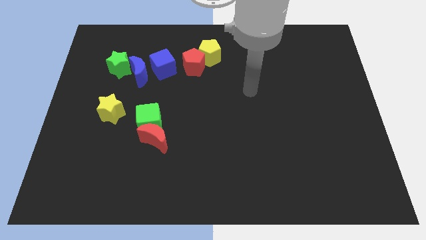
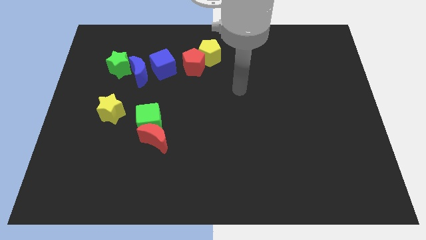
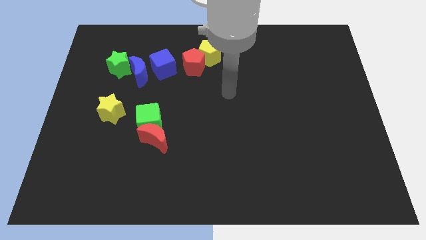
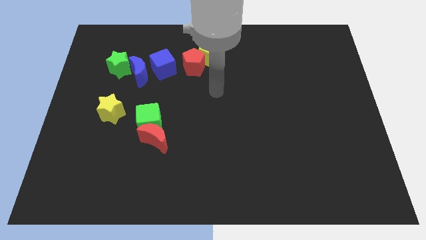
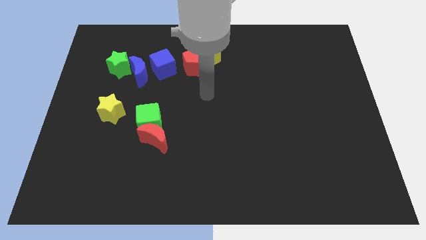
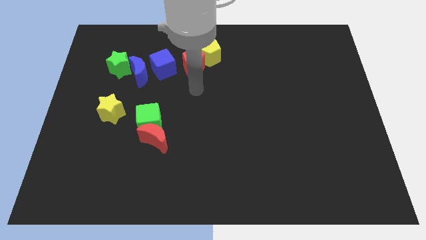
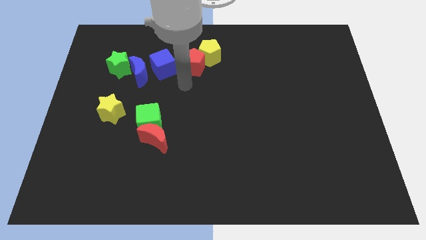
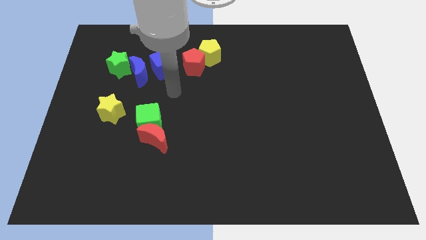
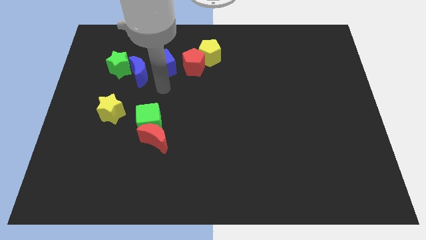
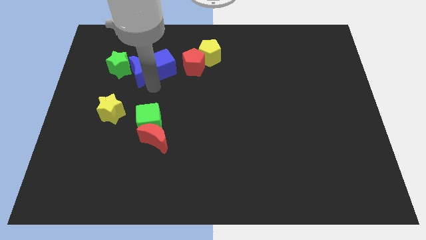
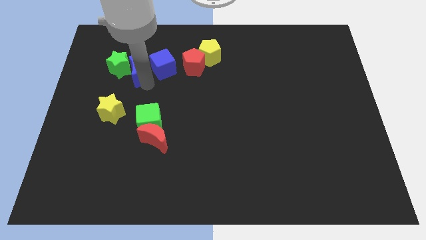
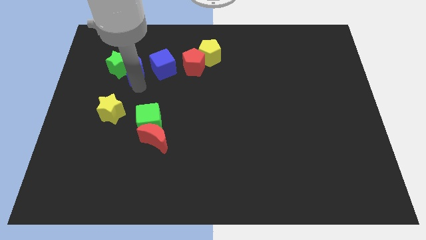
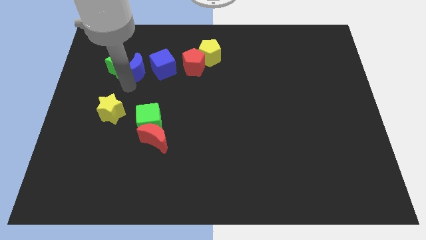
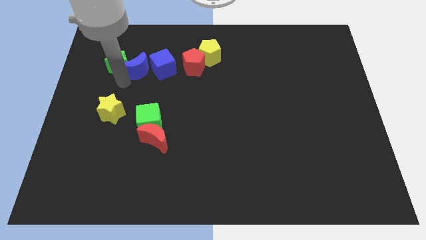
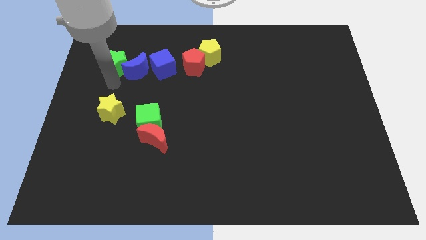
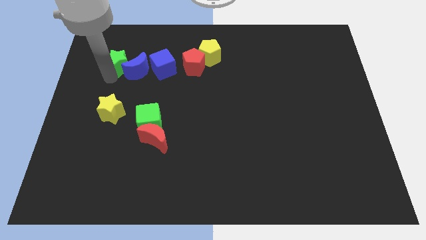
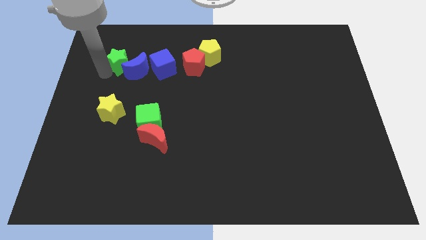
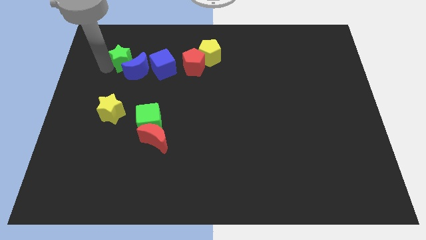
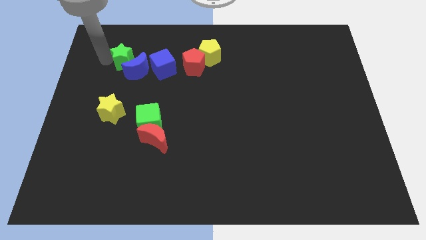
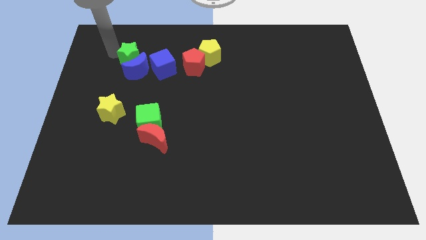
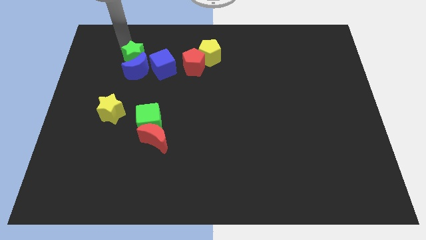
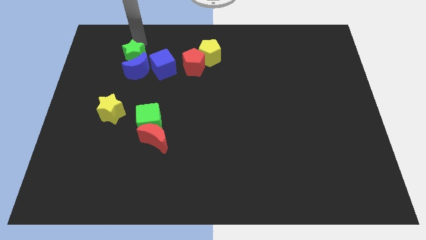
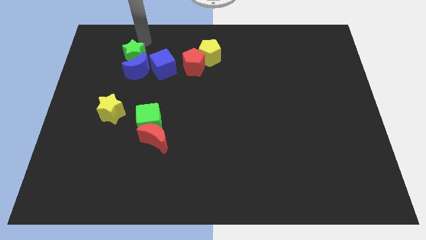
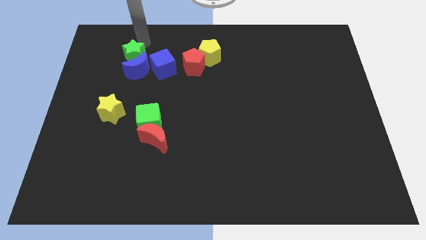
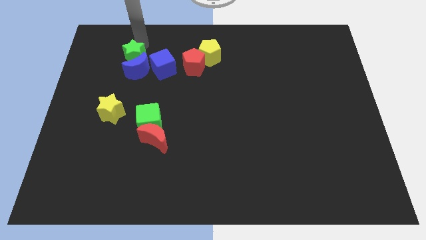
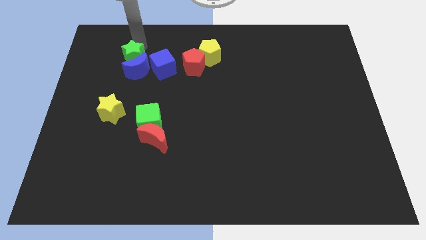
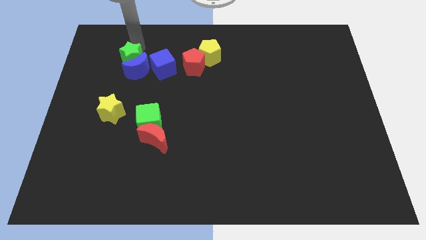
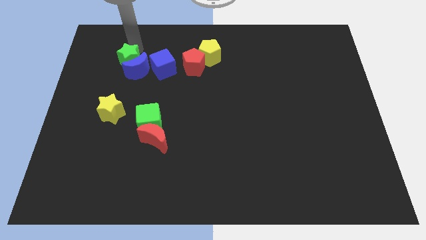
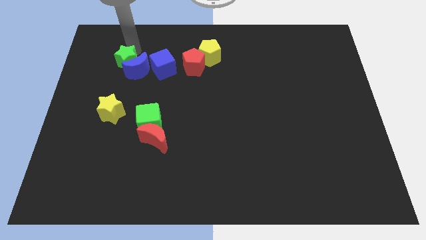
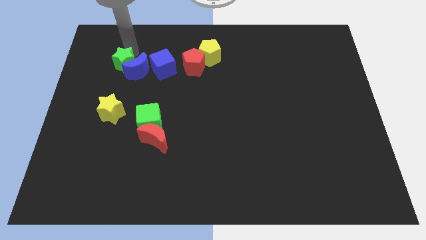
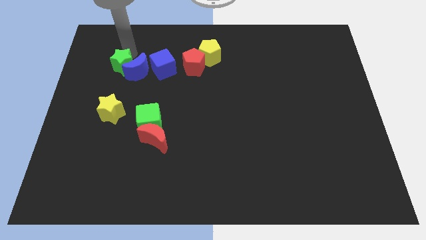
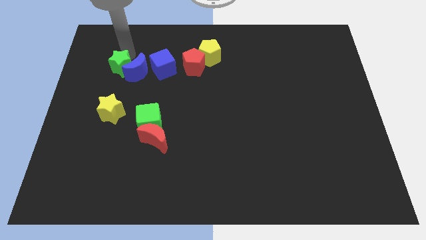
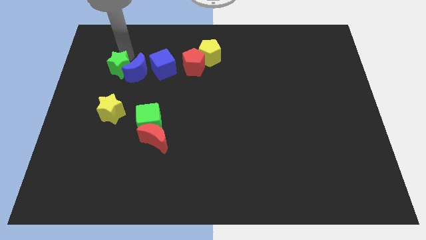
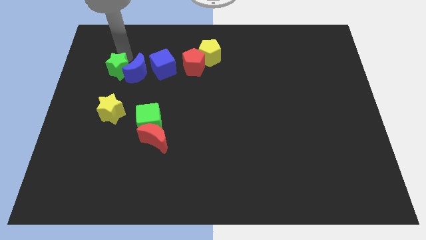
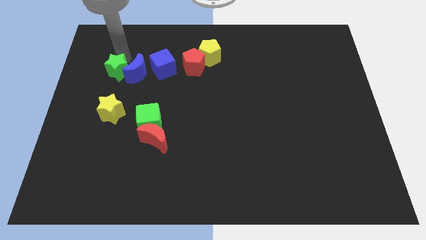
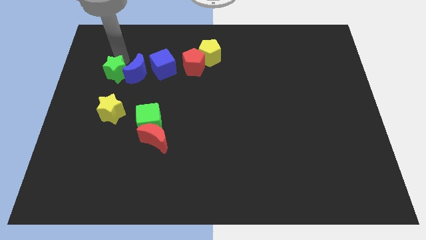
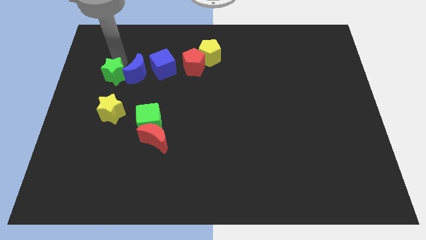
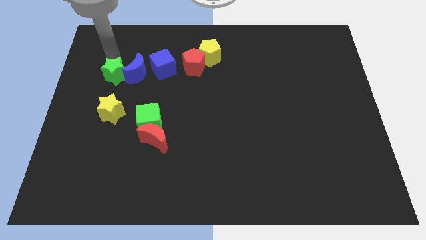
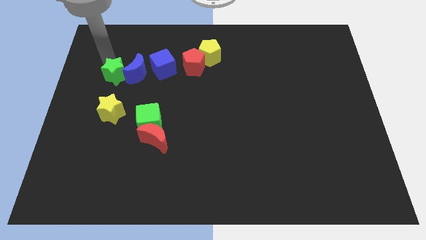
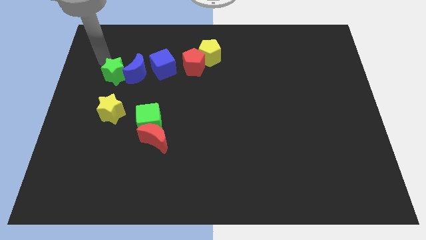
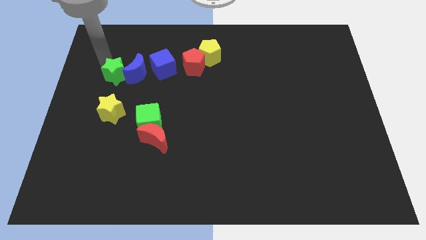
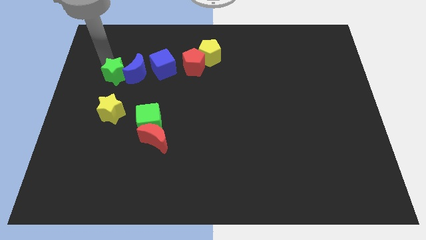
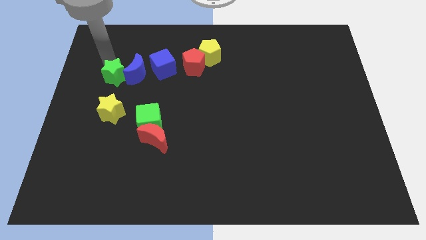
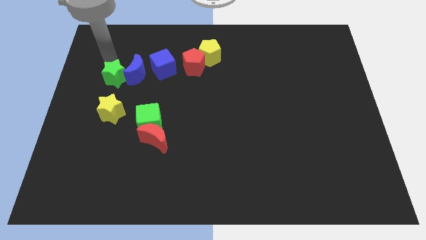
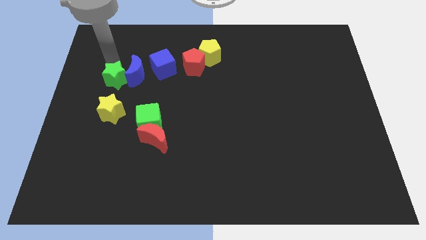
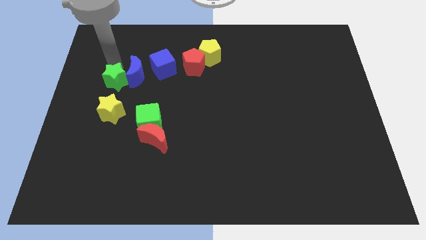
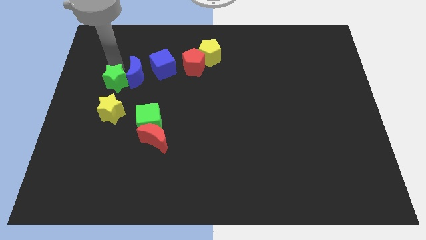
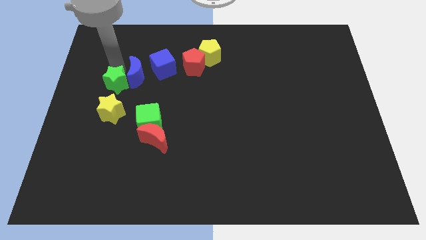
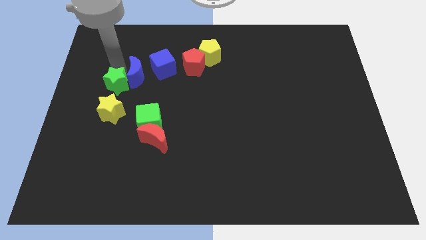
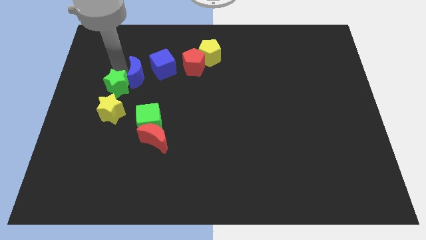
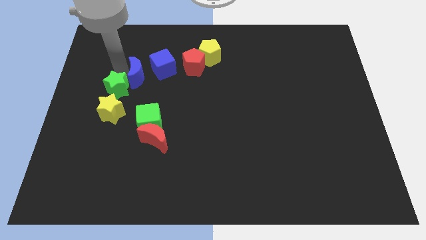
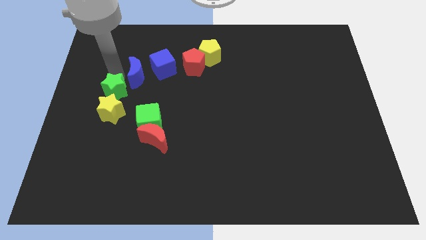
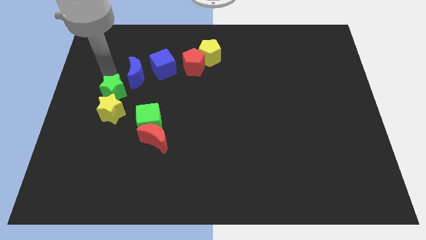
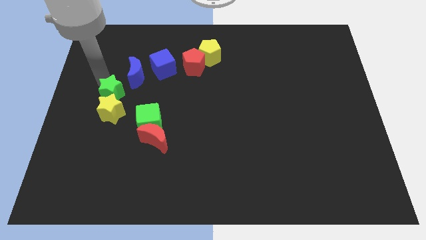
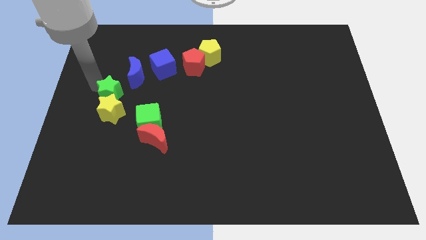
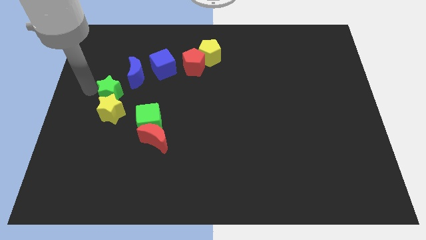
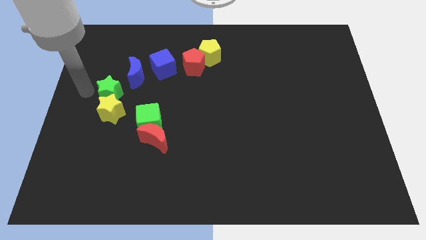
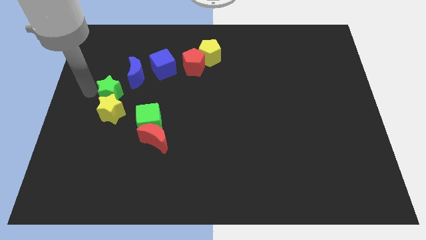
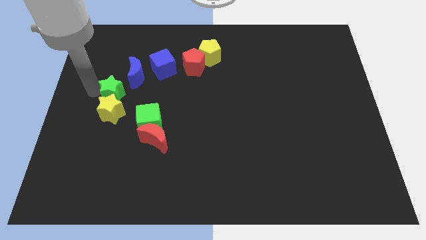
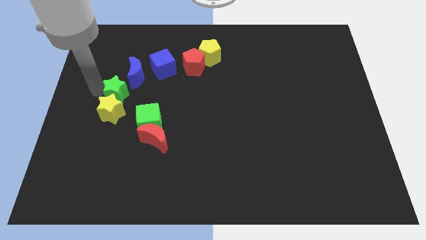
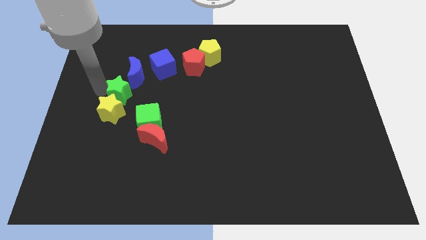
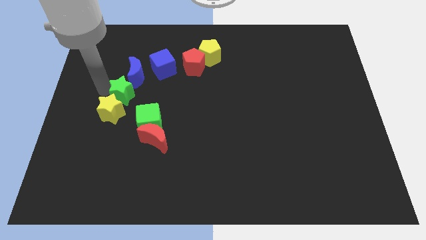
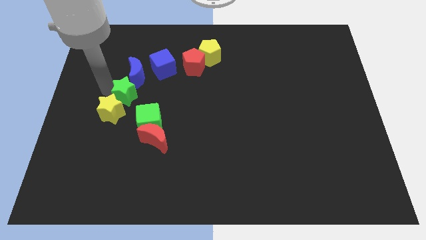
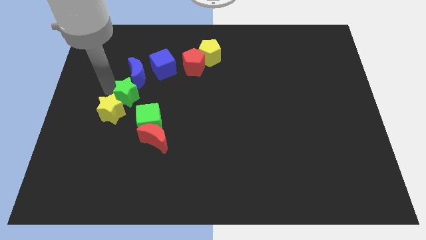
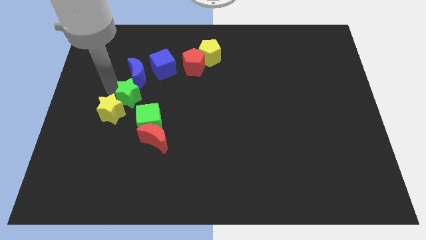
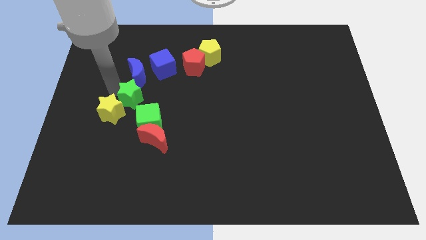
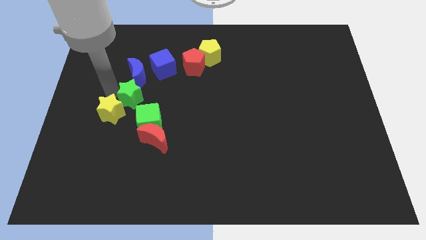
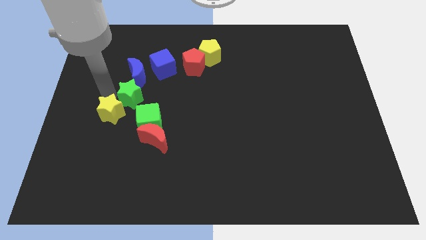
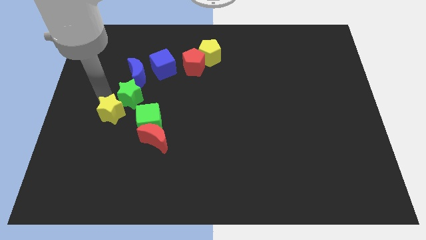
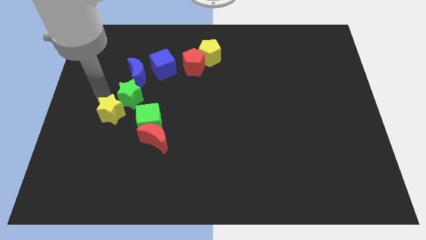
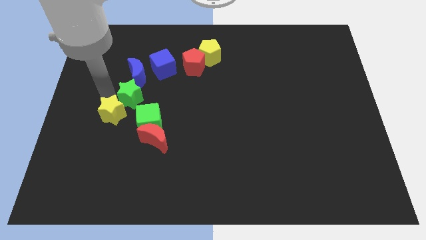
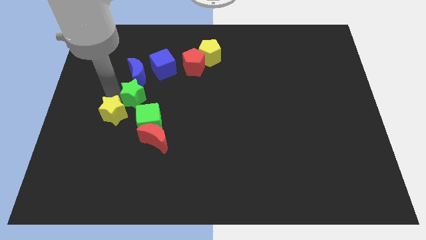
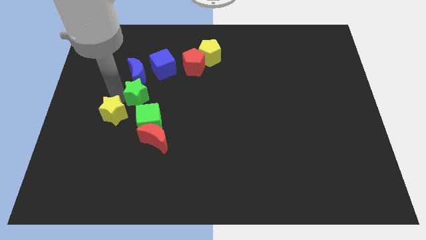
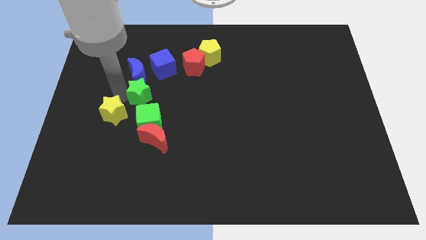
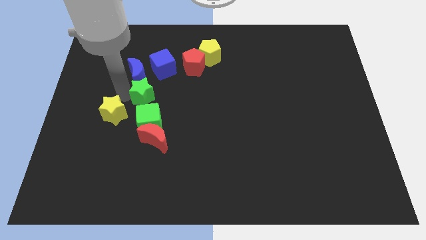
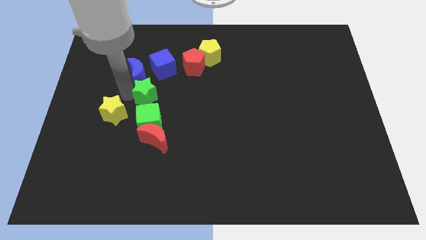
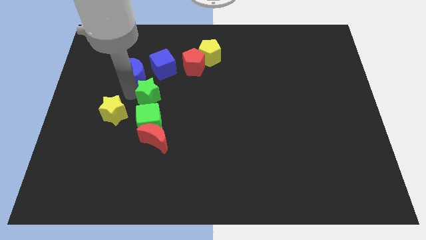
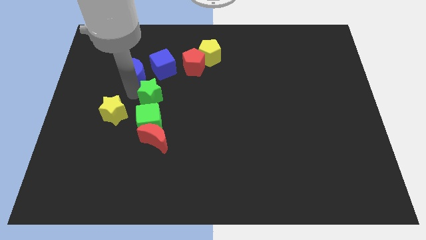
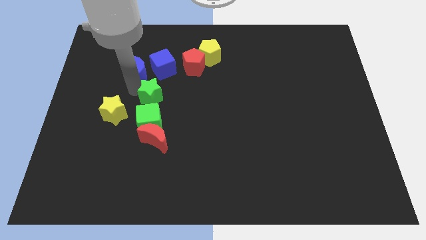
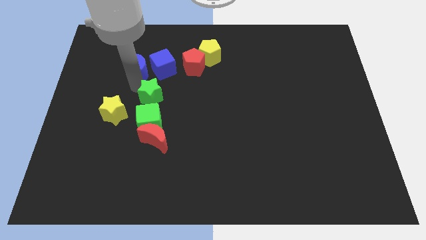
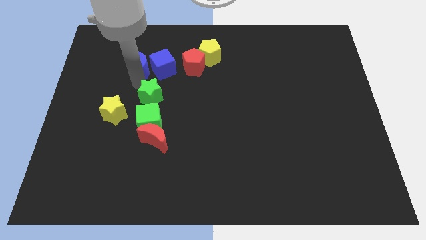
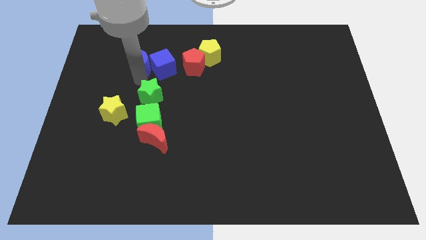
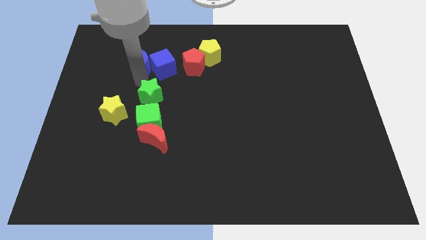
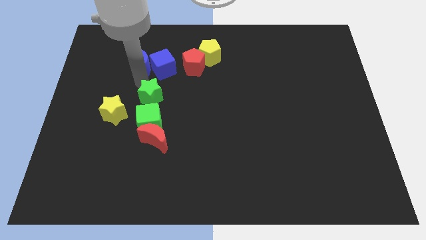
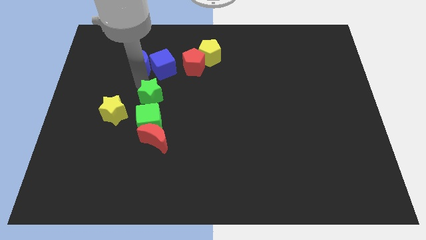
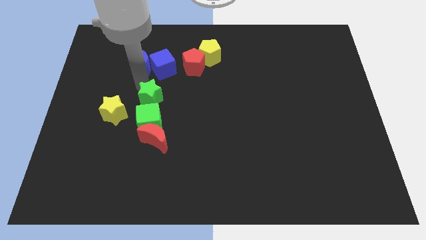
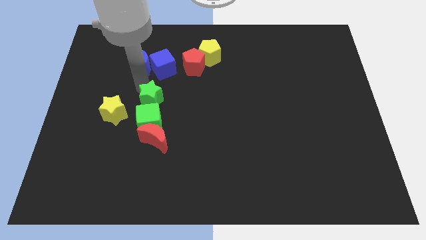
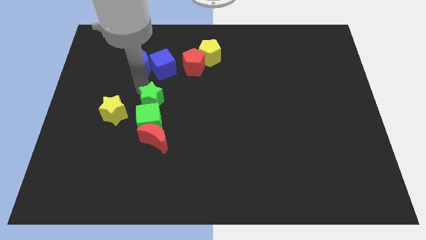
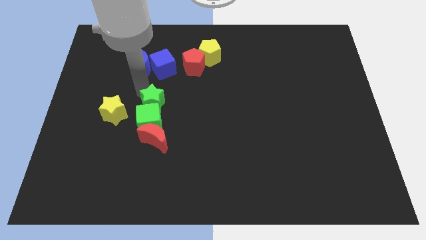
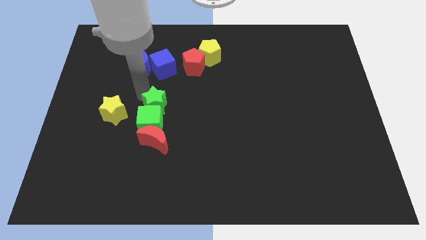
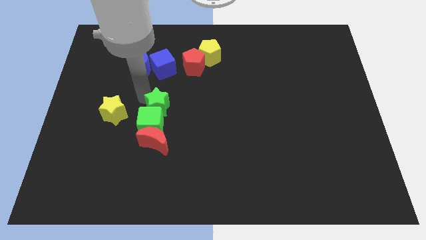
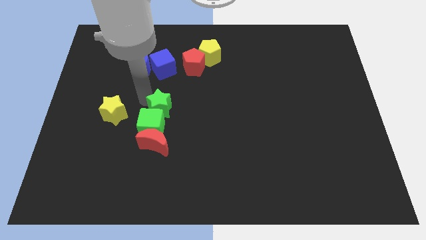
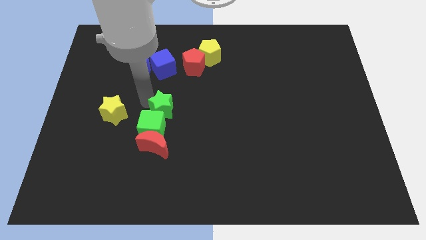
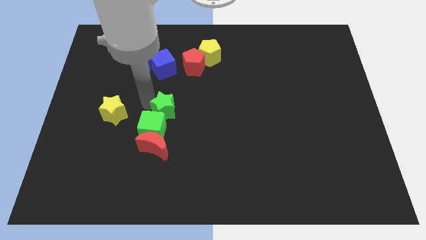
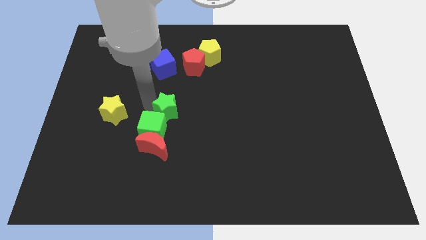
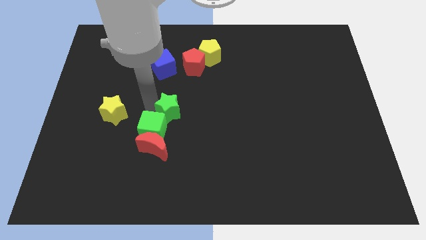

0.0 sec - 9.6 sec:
move the green star downwards and right
